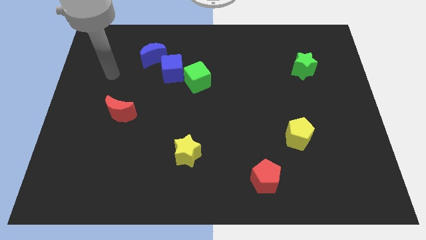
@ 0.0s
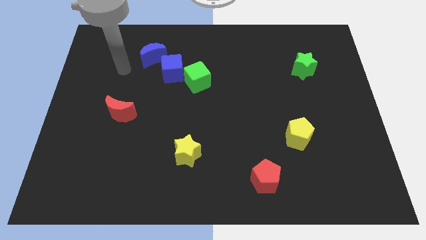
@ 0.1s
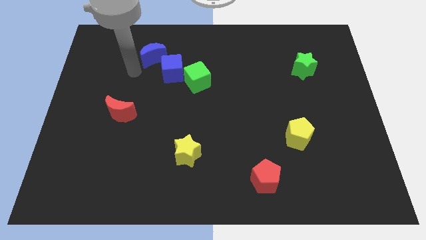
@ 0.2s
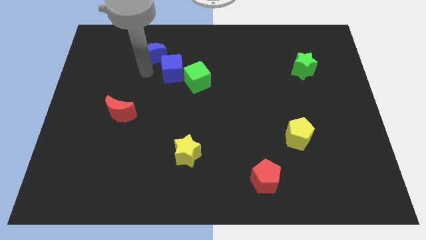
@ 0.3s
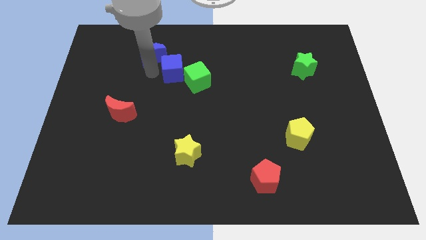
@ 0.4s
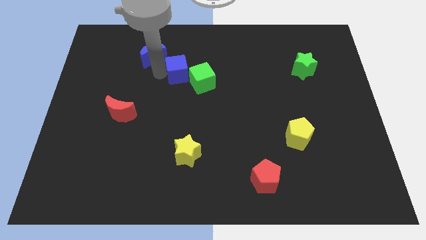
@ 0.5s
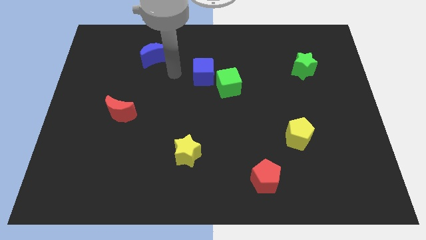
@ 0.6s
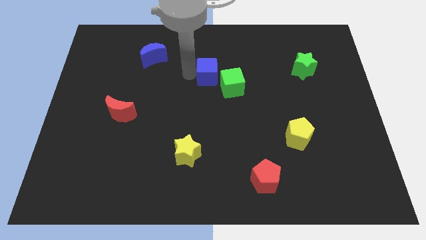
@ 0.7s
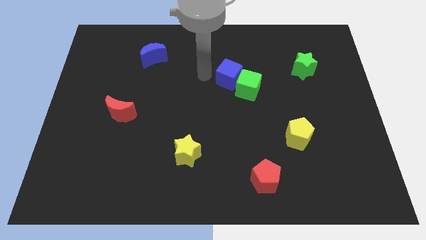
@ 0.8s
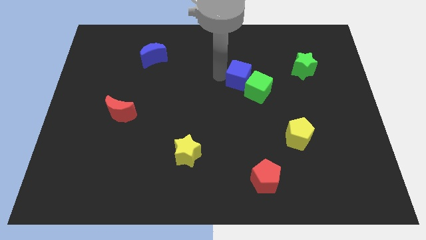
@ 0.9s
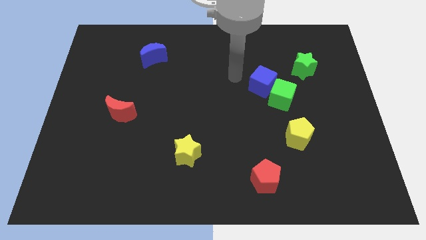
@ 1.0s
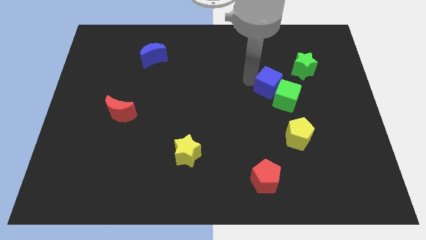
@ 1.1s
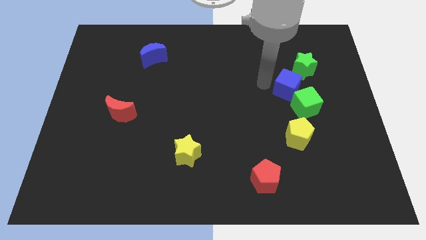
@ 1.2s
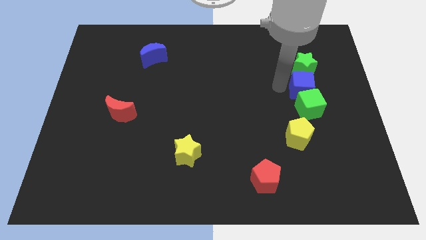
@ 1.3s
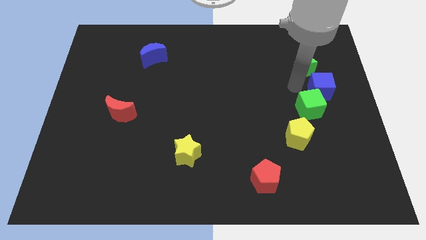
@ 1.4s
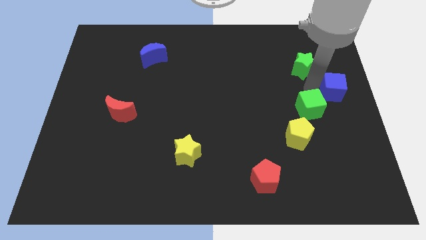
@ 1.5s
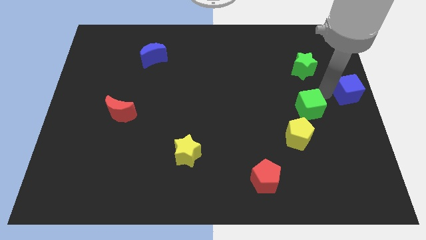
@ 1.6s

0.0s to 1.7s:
pull the green cube apart from the blue cube

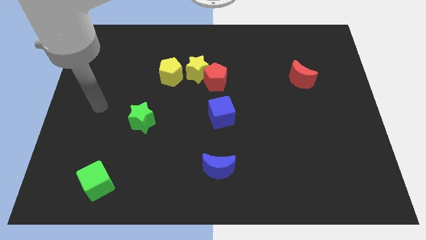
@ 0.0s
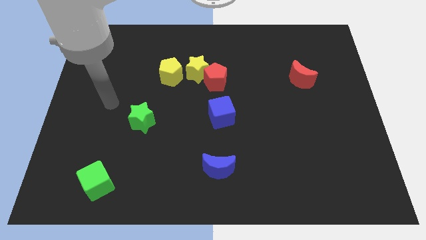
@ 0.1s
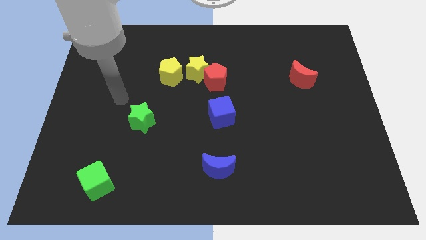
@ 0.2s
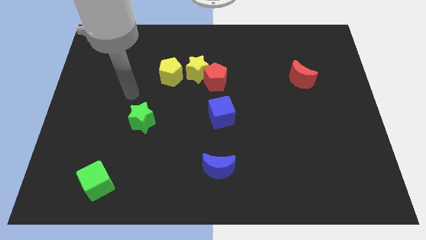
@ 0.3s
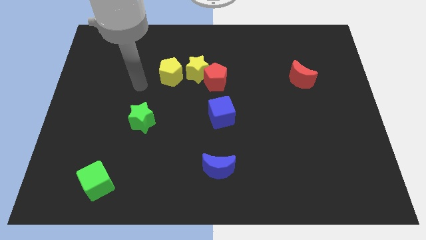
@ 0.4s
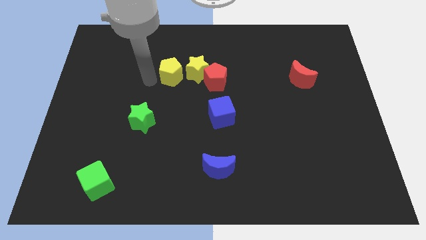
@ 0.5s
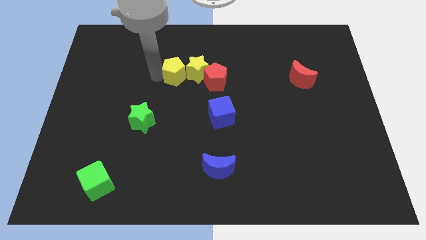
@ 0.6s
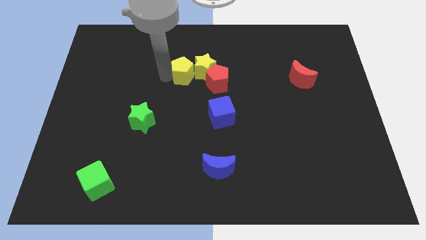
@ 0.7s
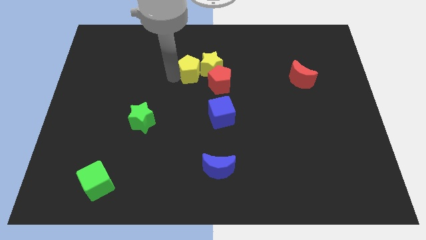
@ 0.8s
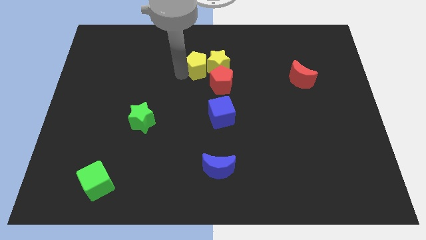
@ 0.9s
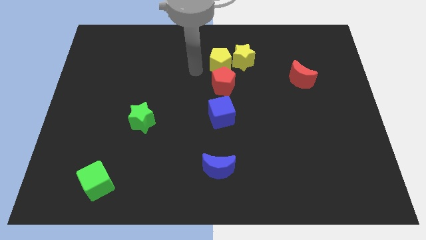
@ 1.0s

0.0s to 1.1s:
move the red pentagon away from the yellow star

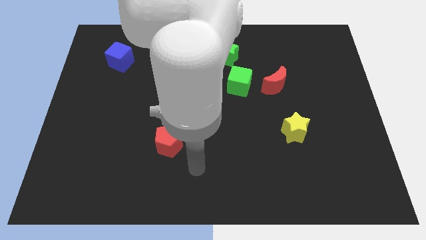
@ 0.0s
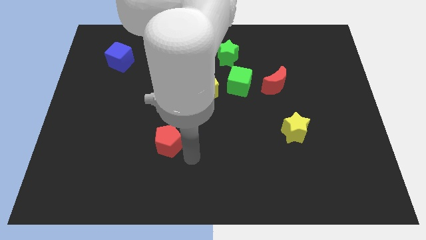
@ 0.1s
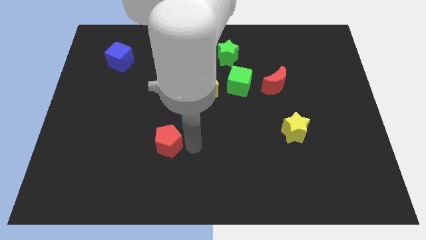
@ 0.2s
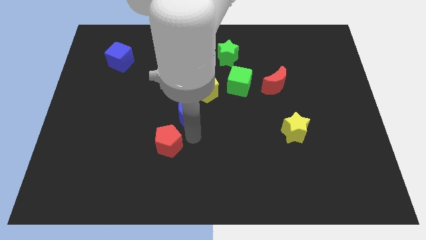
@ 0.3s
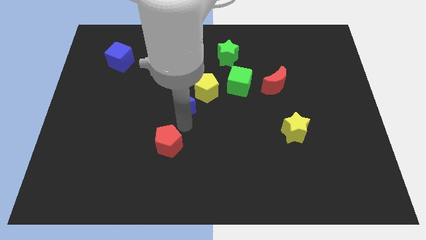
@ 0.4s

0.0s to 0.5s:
pull the red pentagon apart from the blue moon

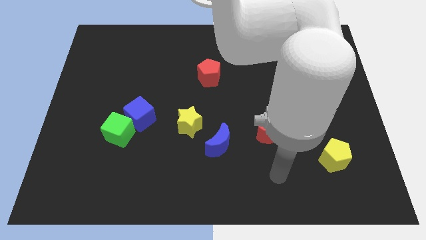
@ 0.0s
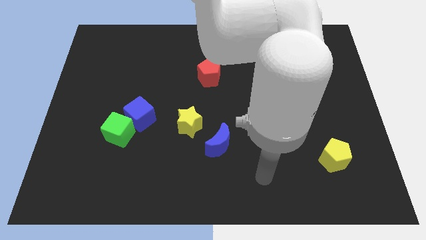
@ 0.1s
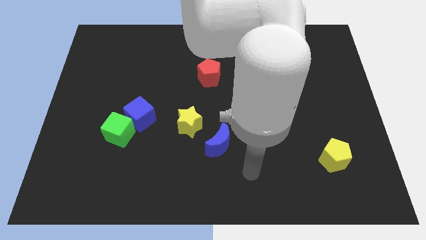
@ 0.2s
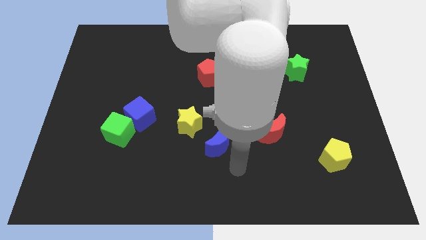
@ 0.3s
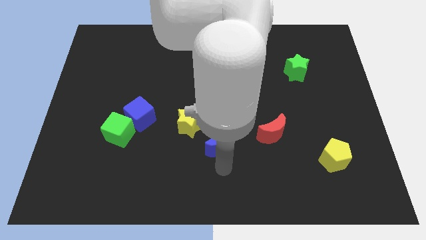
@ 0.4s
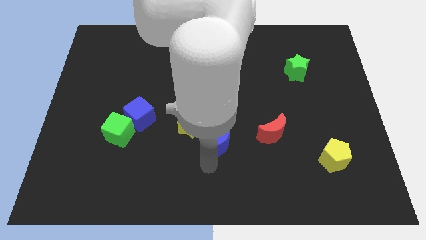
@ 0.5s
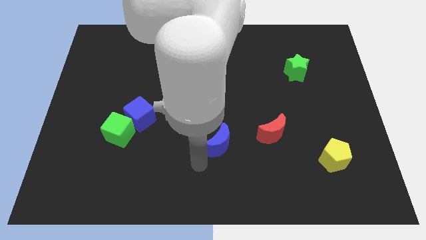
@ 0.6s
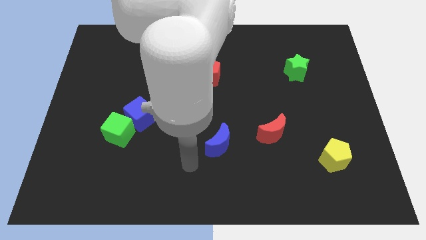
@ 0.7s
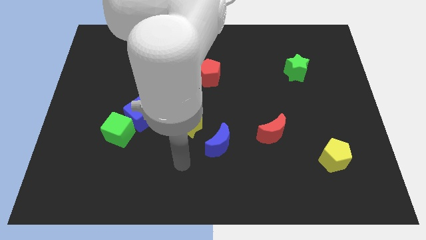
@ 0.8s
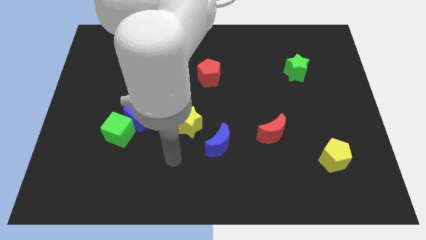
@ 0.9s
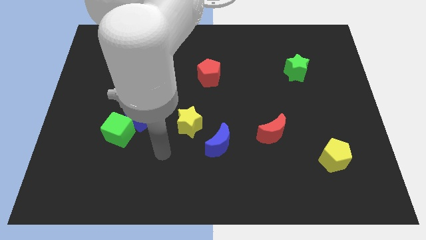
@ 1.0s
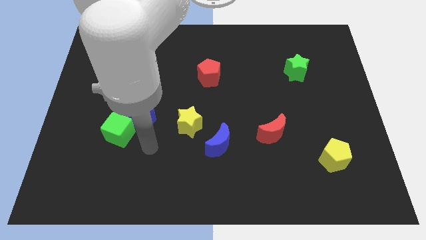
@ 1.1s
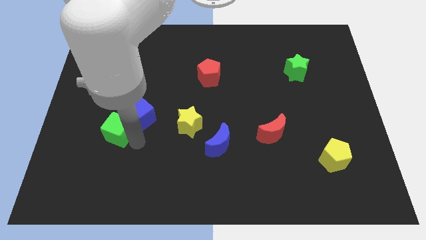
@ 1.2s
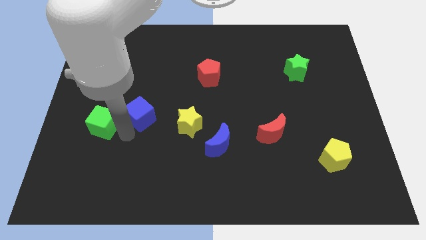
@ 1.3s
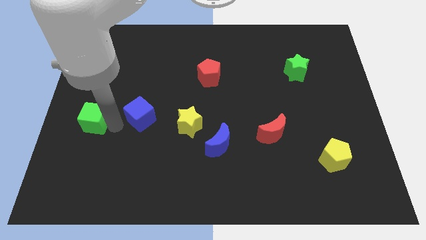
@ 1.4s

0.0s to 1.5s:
separate the blue cube from the green cube

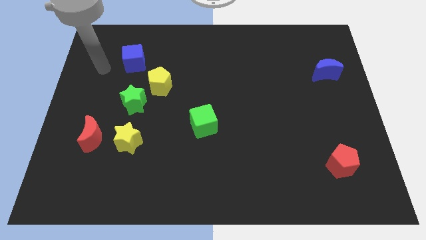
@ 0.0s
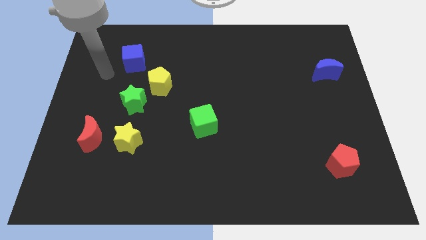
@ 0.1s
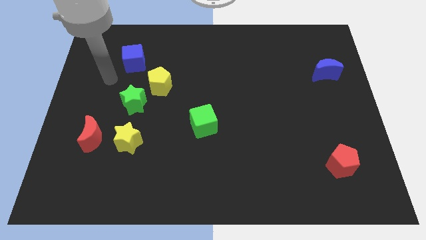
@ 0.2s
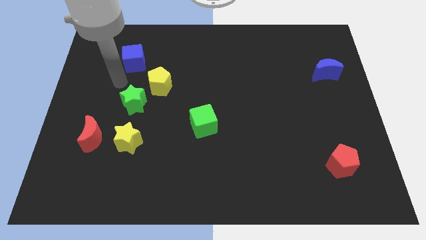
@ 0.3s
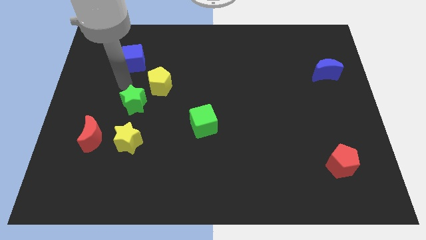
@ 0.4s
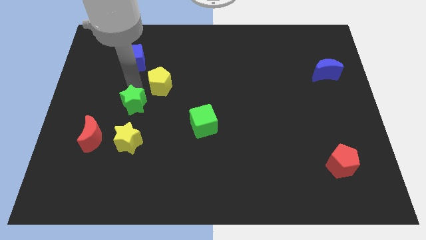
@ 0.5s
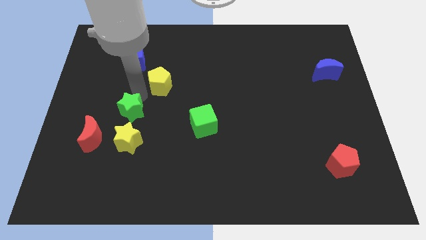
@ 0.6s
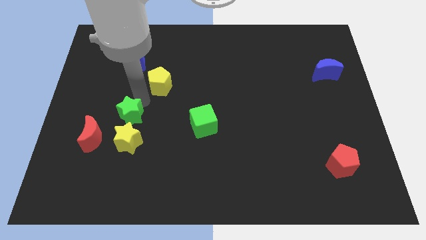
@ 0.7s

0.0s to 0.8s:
separate the yellow pentagon from the green star

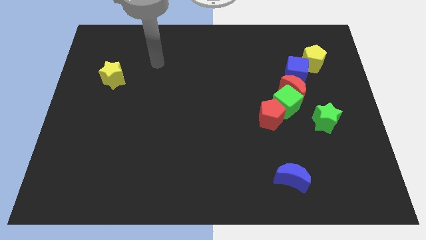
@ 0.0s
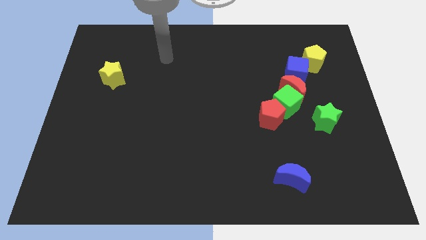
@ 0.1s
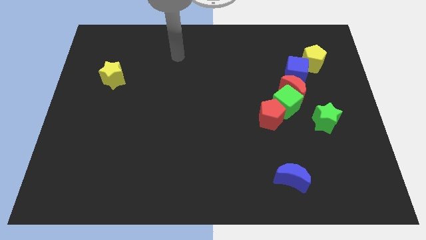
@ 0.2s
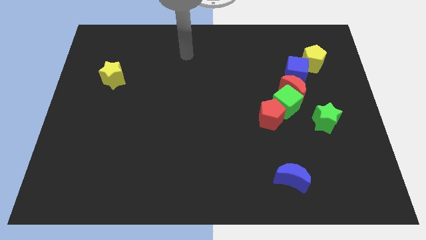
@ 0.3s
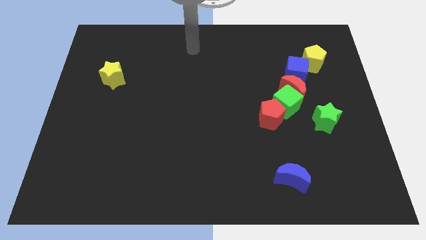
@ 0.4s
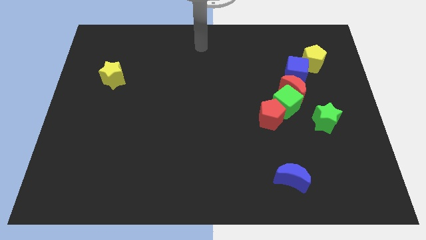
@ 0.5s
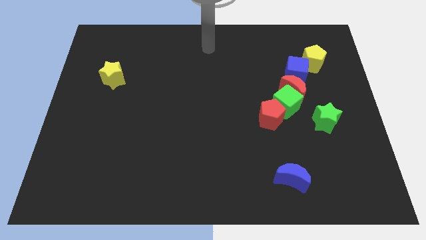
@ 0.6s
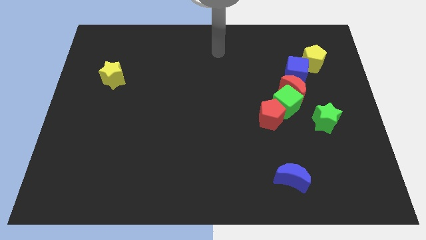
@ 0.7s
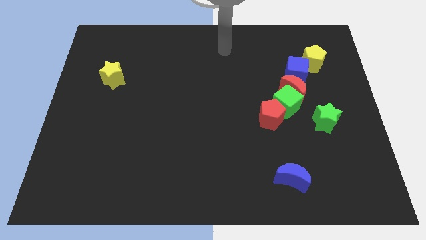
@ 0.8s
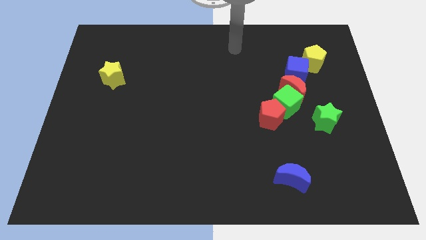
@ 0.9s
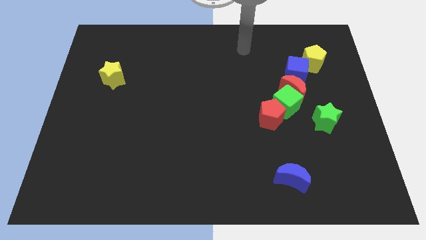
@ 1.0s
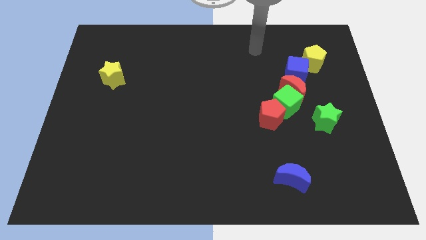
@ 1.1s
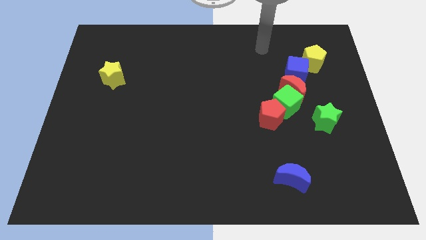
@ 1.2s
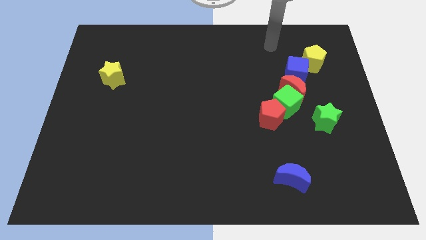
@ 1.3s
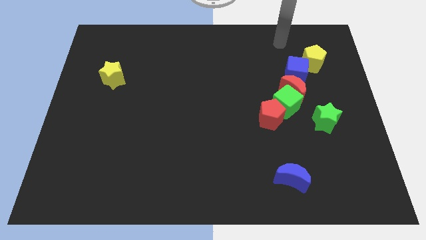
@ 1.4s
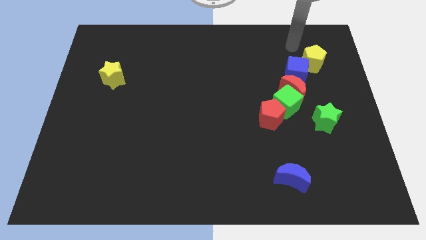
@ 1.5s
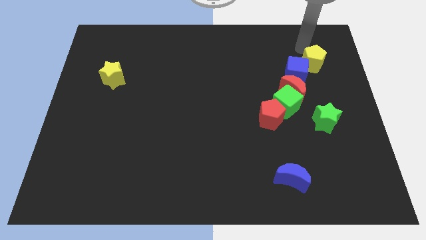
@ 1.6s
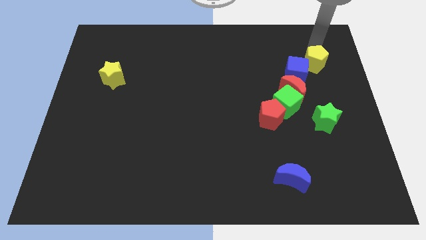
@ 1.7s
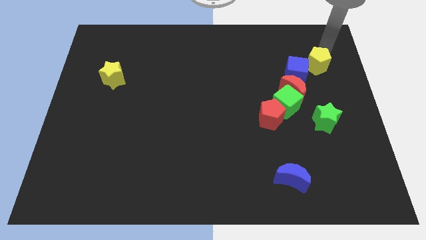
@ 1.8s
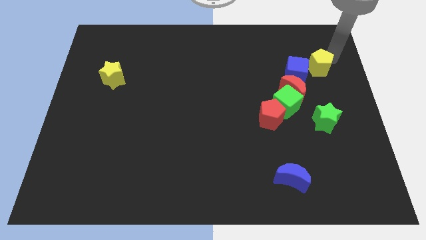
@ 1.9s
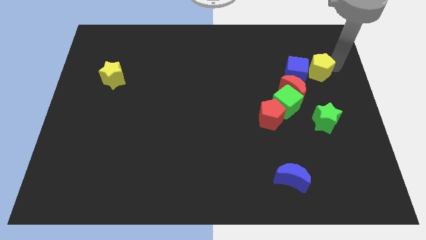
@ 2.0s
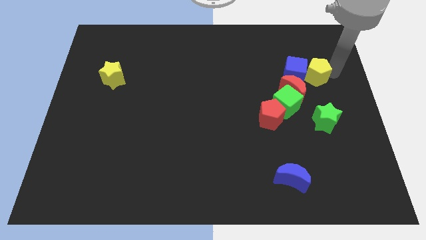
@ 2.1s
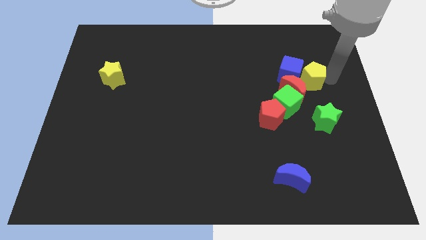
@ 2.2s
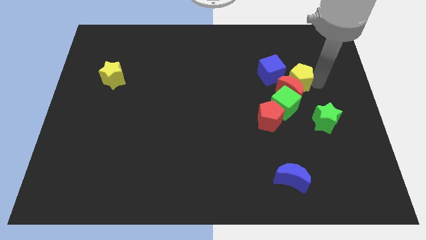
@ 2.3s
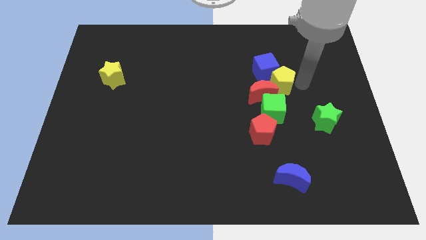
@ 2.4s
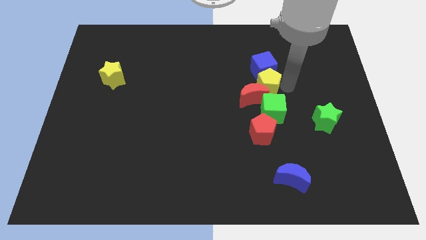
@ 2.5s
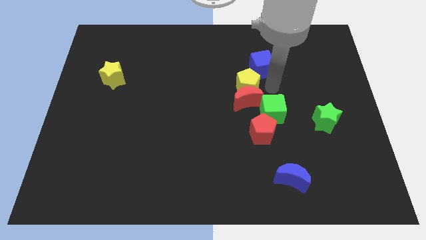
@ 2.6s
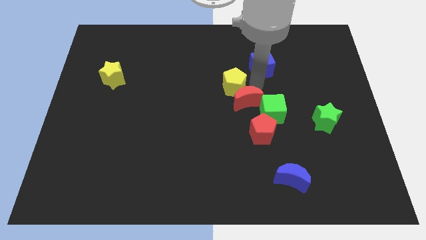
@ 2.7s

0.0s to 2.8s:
pull the blue cube apart from the red moon and yellow pentagon

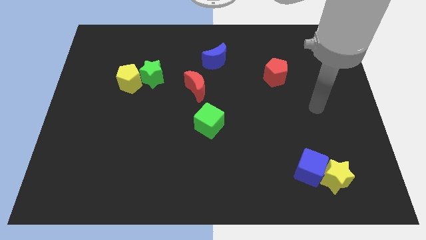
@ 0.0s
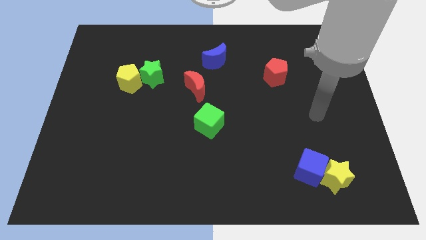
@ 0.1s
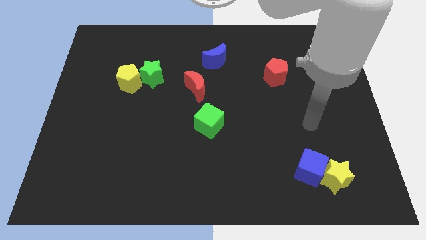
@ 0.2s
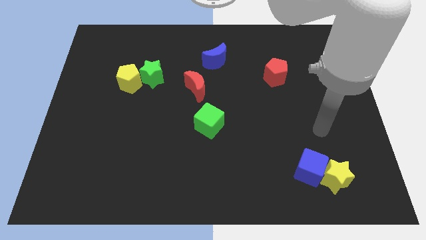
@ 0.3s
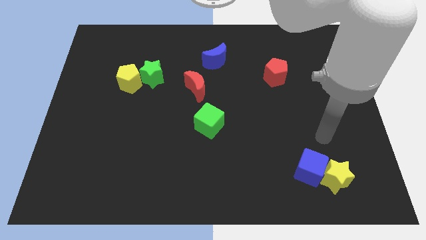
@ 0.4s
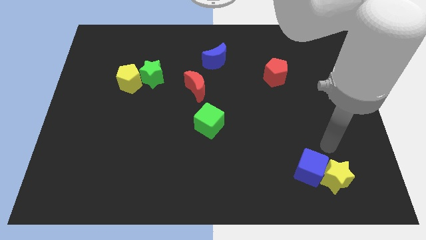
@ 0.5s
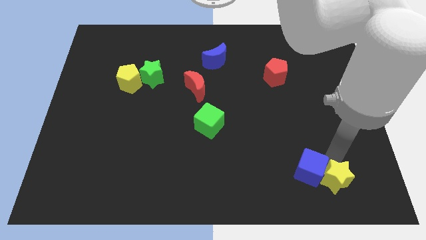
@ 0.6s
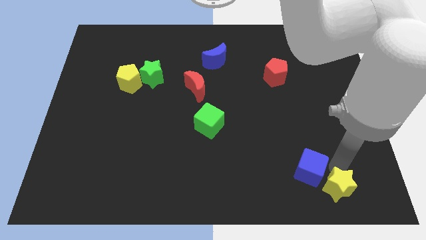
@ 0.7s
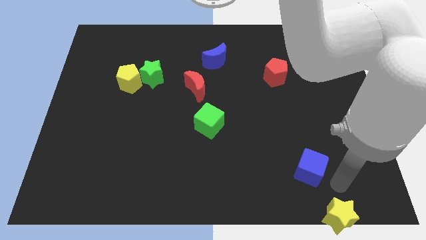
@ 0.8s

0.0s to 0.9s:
move the blue cube away from the yellow star
